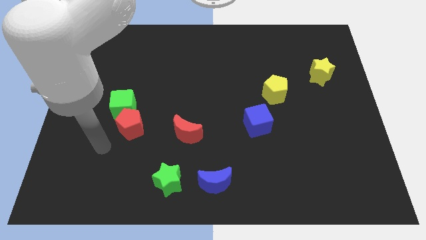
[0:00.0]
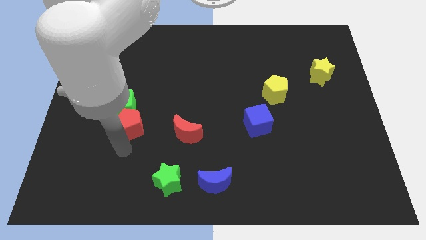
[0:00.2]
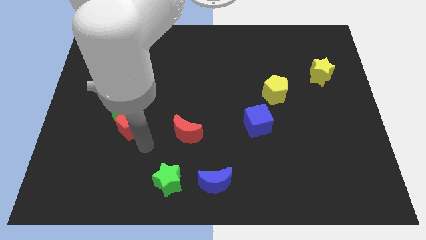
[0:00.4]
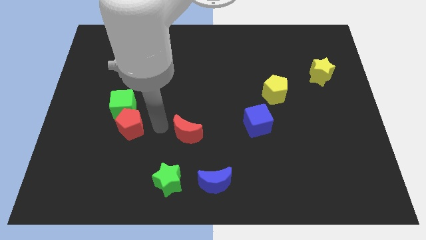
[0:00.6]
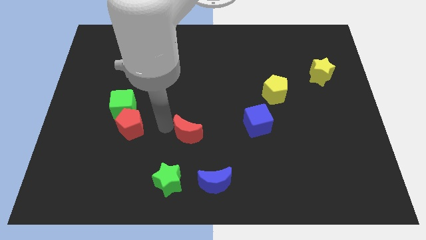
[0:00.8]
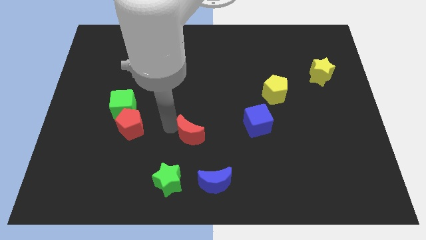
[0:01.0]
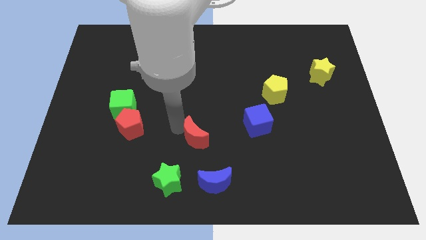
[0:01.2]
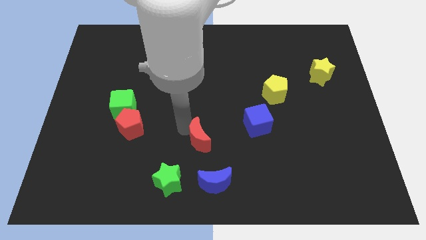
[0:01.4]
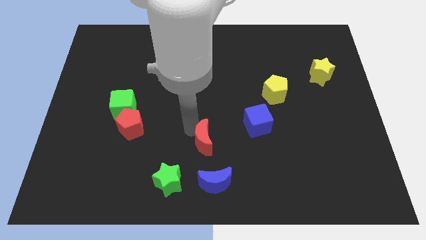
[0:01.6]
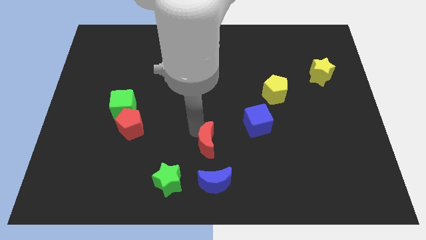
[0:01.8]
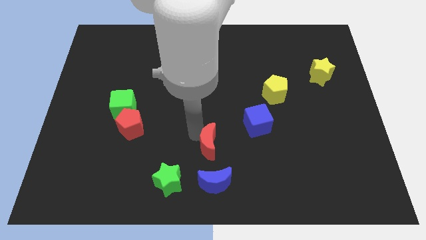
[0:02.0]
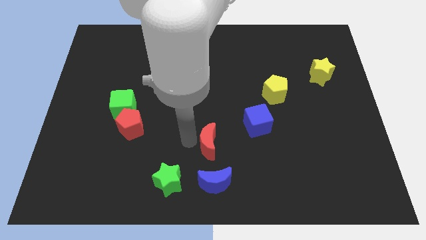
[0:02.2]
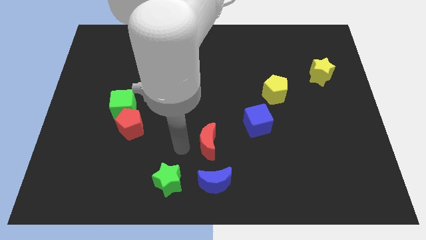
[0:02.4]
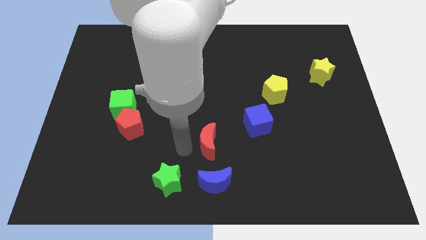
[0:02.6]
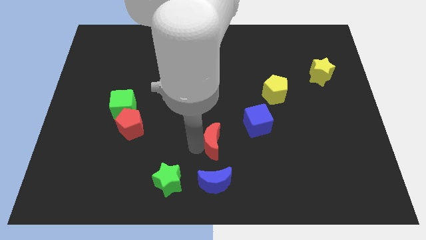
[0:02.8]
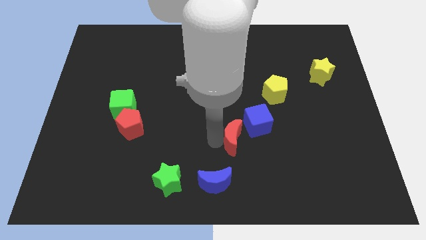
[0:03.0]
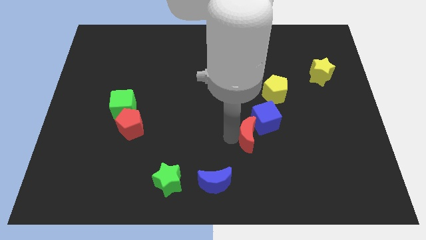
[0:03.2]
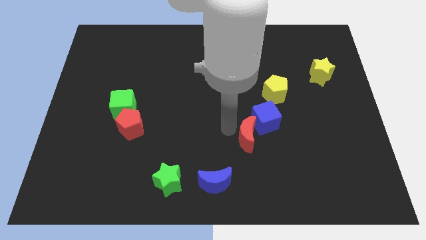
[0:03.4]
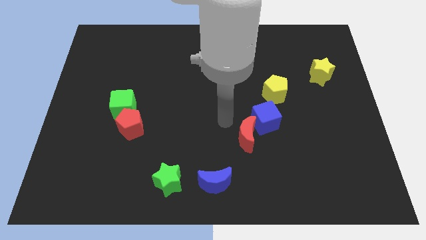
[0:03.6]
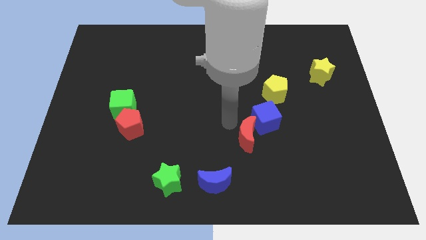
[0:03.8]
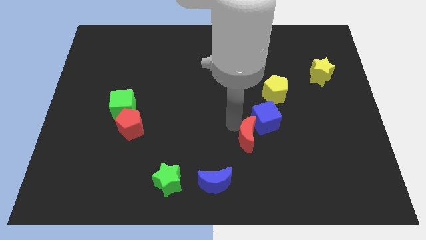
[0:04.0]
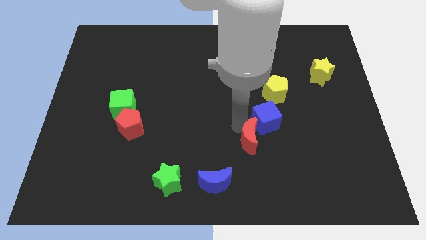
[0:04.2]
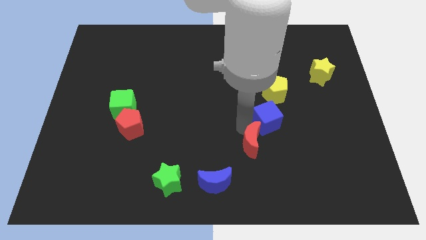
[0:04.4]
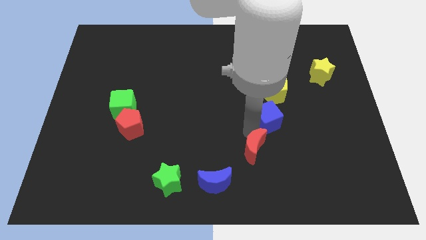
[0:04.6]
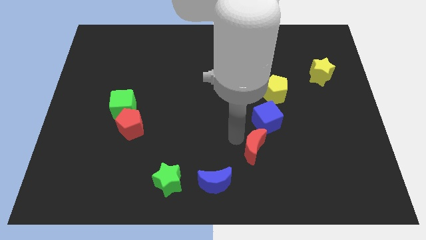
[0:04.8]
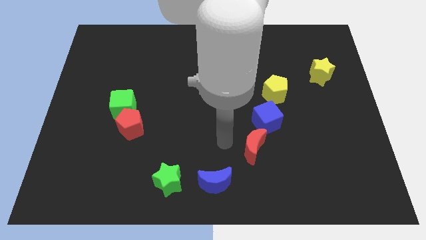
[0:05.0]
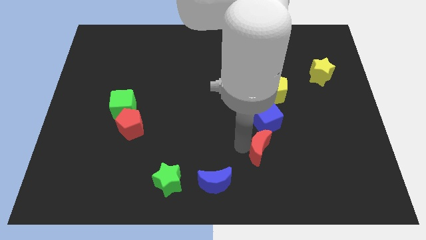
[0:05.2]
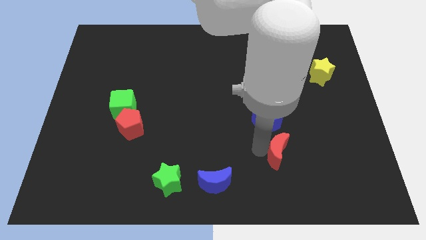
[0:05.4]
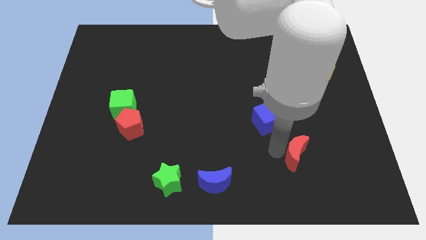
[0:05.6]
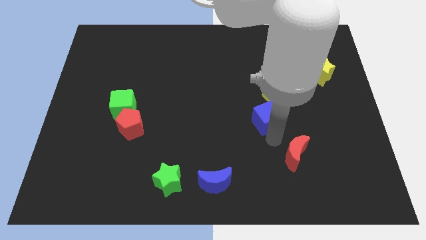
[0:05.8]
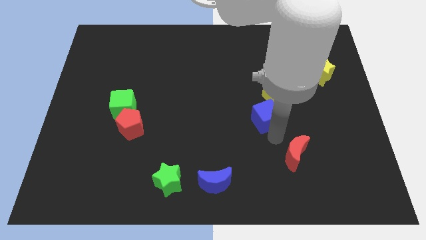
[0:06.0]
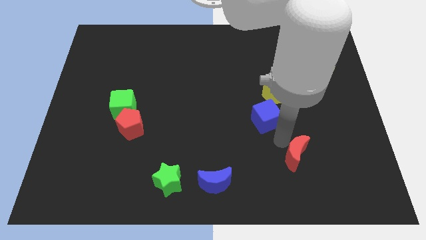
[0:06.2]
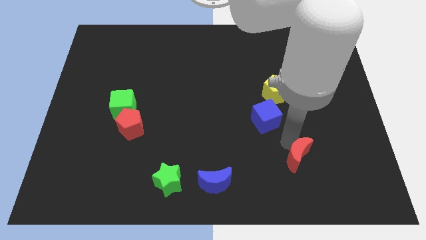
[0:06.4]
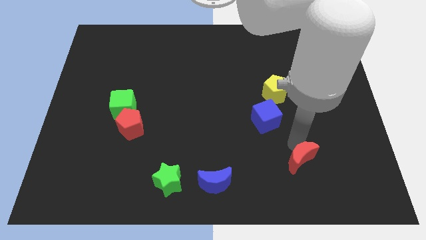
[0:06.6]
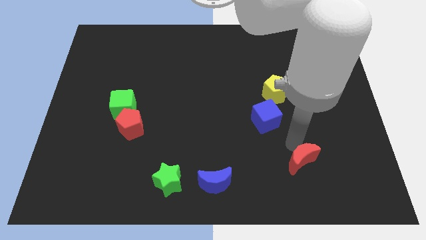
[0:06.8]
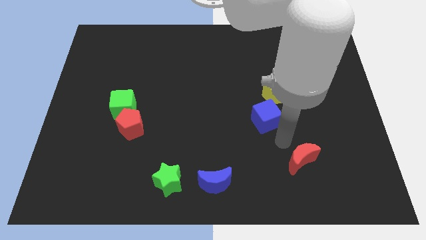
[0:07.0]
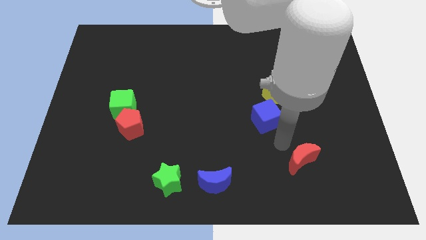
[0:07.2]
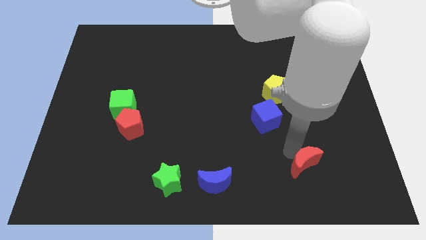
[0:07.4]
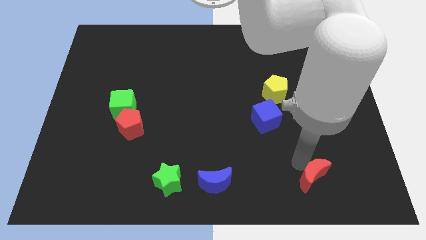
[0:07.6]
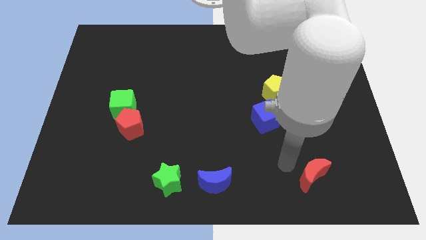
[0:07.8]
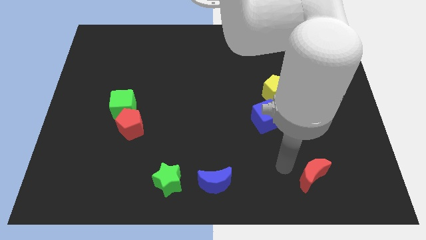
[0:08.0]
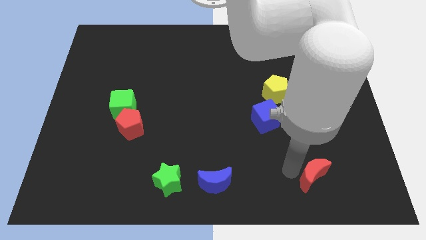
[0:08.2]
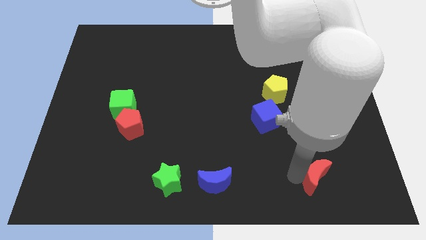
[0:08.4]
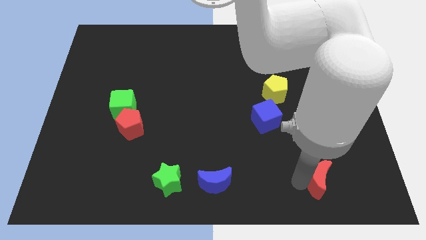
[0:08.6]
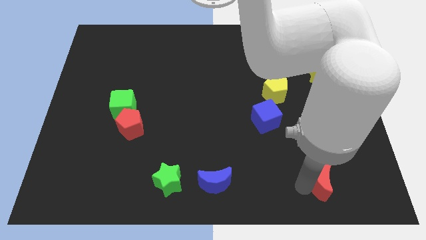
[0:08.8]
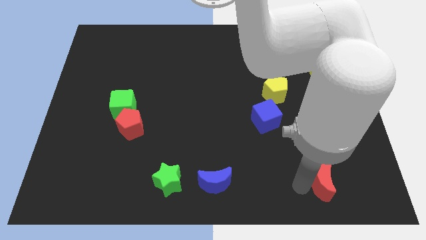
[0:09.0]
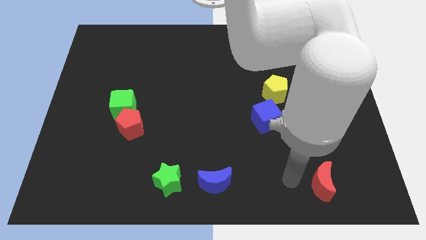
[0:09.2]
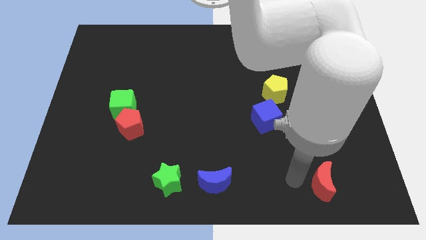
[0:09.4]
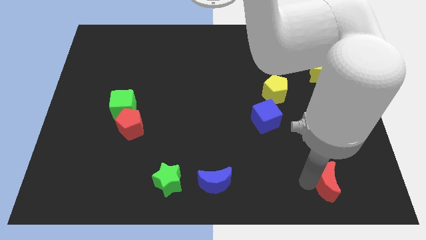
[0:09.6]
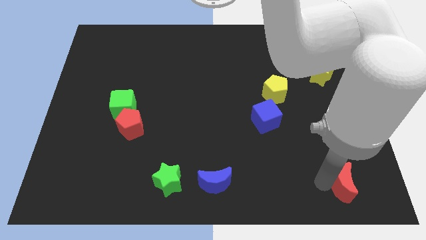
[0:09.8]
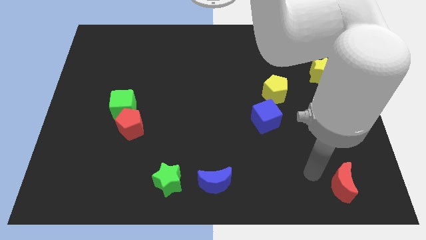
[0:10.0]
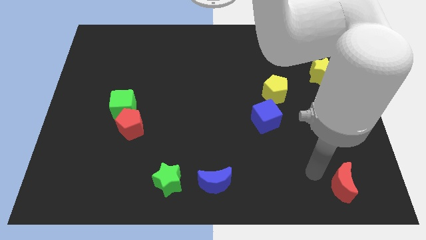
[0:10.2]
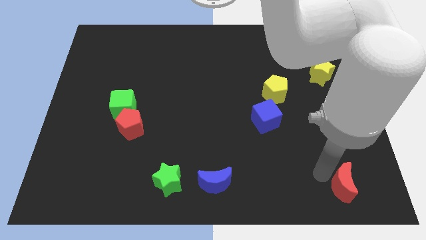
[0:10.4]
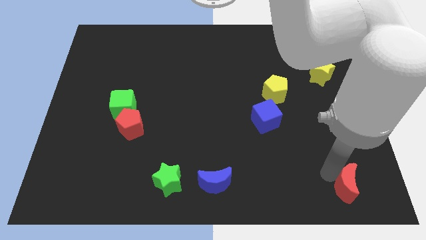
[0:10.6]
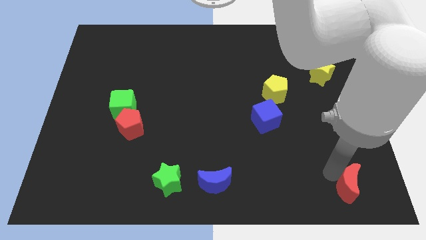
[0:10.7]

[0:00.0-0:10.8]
put the red moon to the lower right corner
